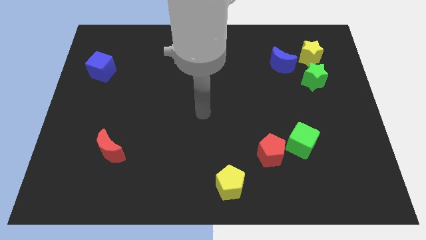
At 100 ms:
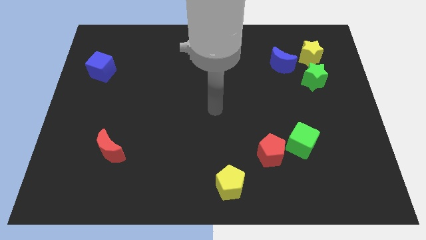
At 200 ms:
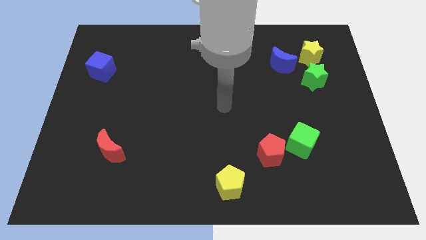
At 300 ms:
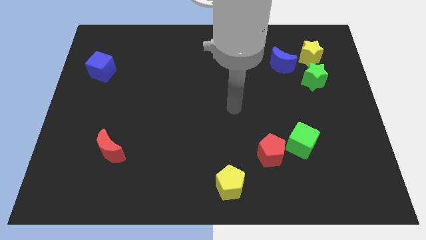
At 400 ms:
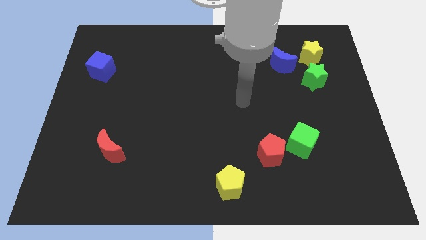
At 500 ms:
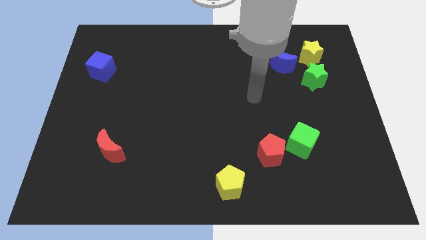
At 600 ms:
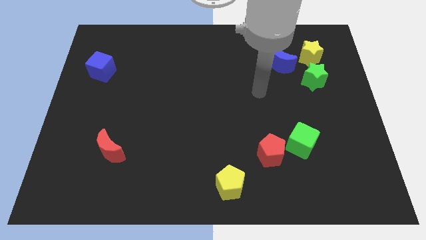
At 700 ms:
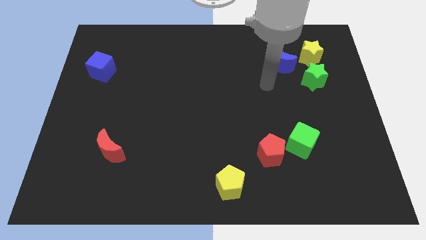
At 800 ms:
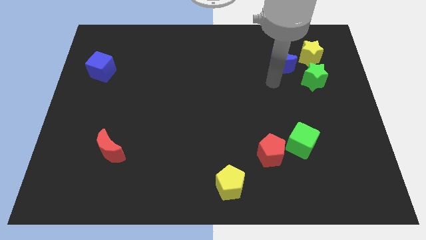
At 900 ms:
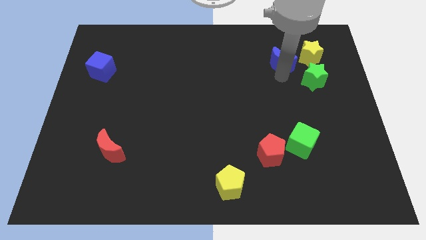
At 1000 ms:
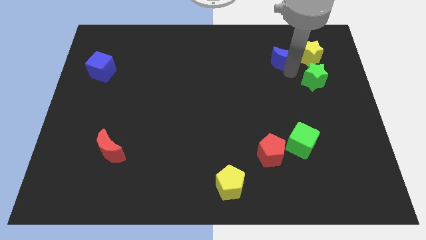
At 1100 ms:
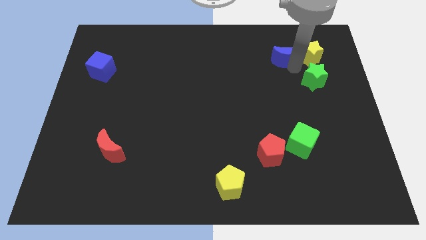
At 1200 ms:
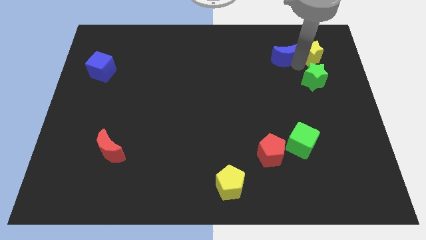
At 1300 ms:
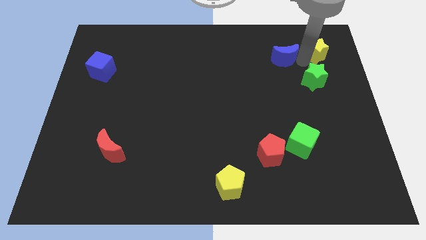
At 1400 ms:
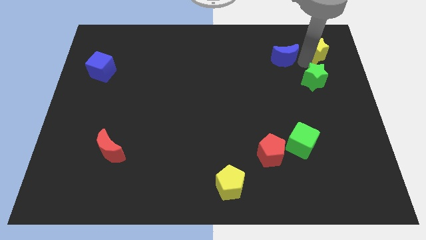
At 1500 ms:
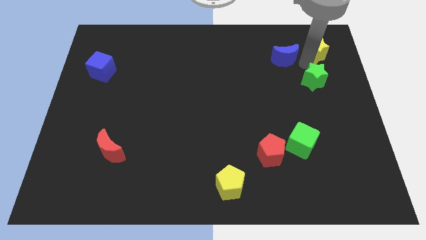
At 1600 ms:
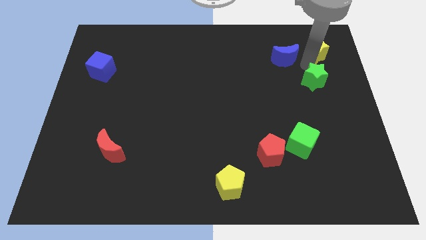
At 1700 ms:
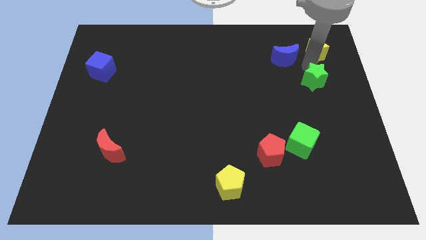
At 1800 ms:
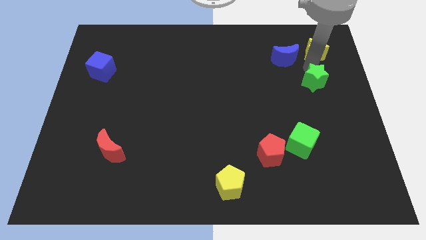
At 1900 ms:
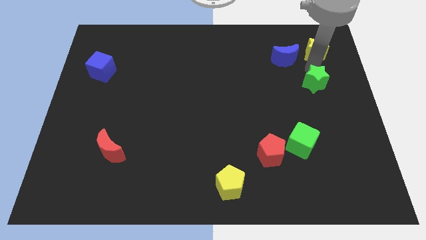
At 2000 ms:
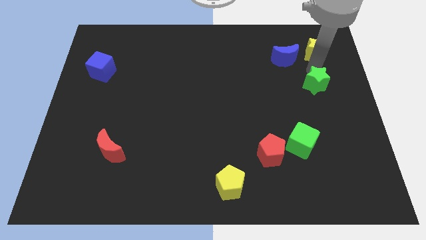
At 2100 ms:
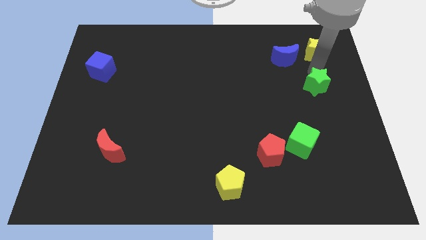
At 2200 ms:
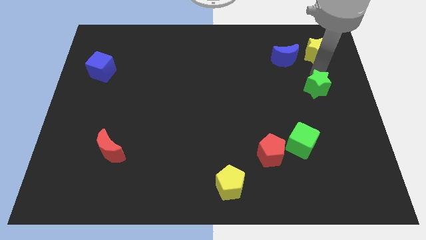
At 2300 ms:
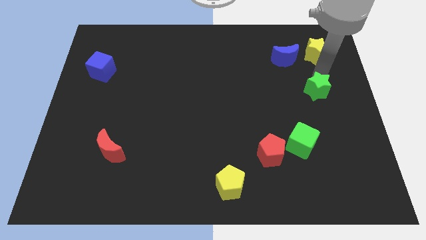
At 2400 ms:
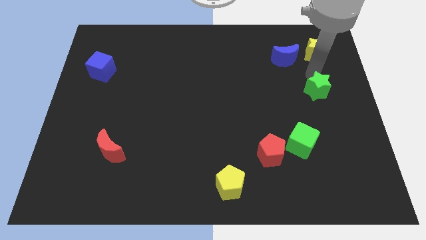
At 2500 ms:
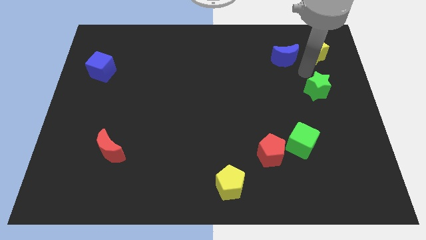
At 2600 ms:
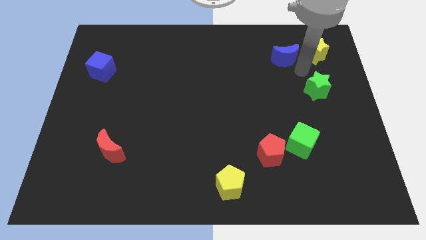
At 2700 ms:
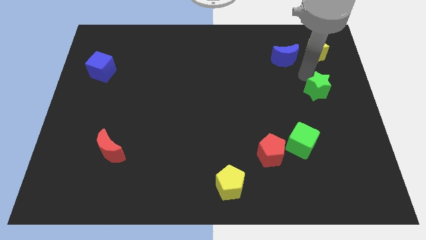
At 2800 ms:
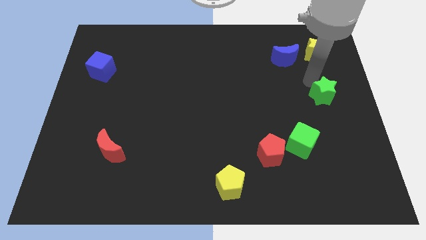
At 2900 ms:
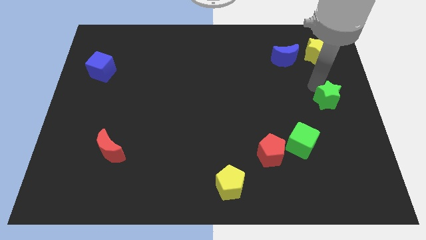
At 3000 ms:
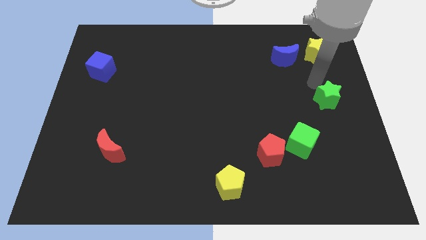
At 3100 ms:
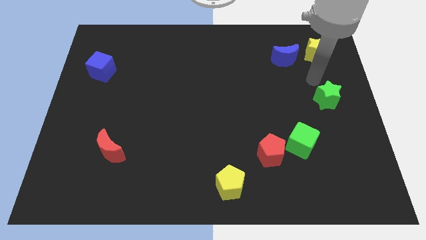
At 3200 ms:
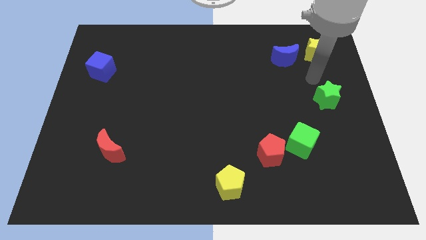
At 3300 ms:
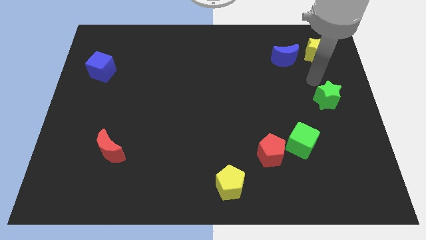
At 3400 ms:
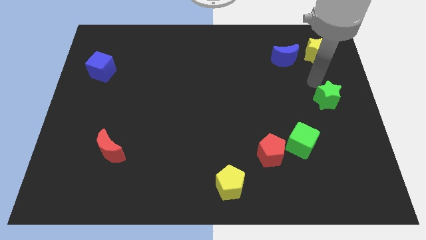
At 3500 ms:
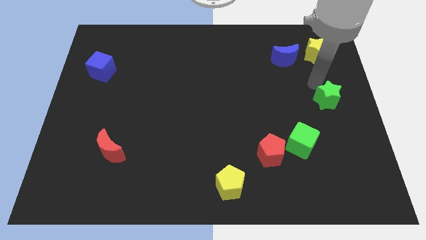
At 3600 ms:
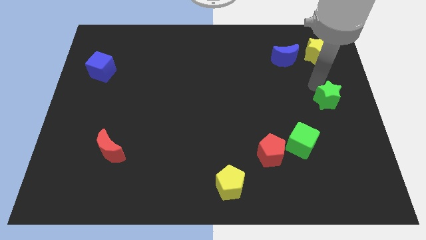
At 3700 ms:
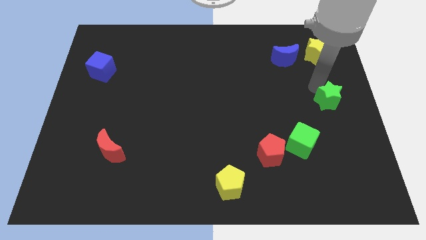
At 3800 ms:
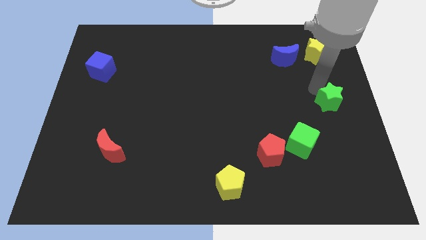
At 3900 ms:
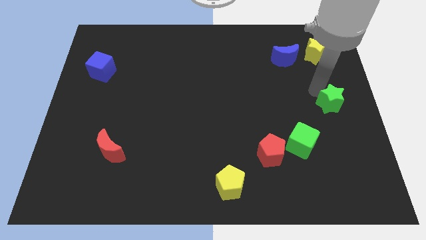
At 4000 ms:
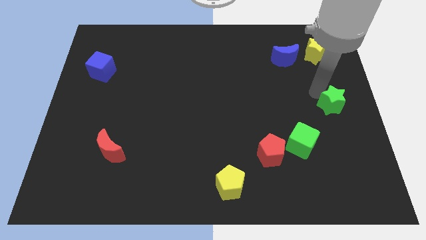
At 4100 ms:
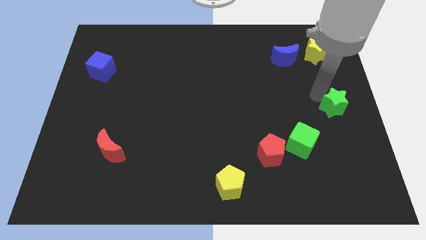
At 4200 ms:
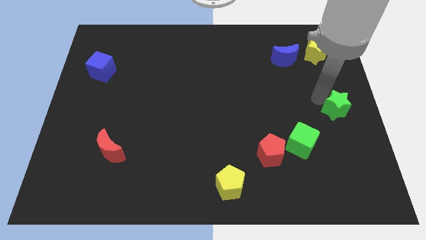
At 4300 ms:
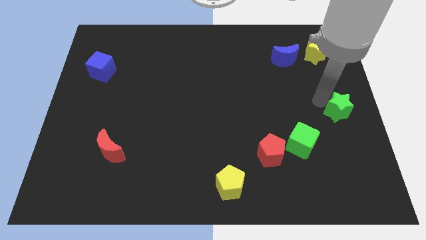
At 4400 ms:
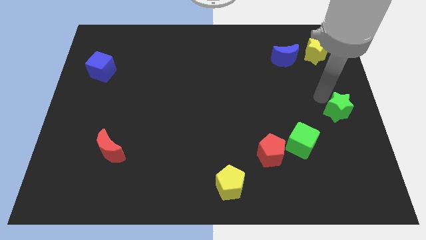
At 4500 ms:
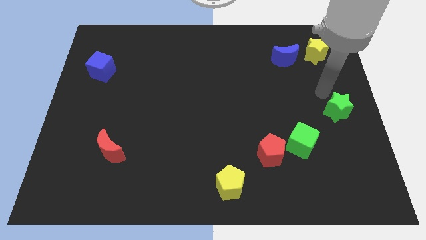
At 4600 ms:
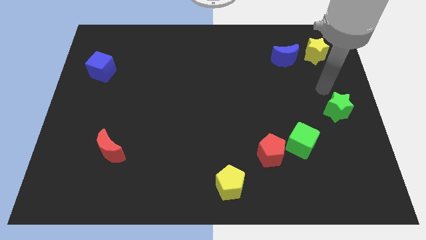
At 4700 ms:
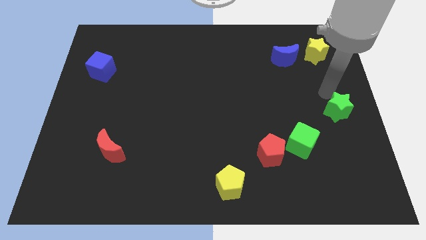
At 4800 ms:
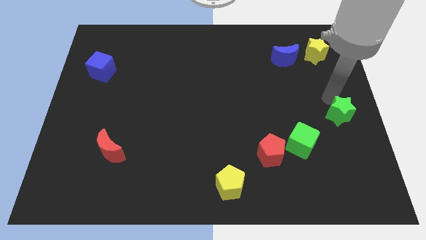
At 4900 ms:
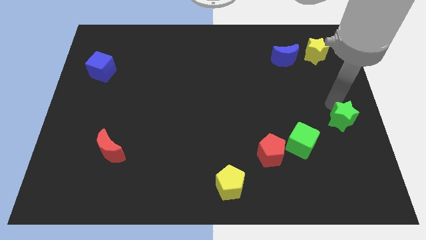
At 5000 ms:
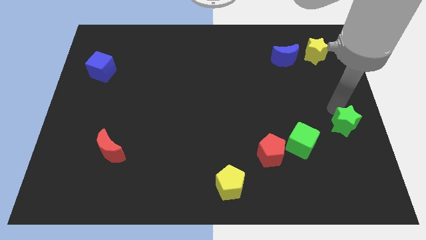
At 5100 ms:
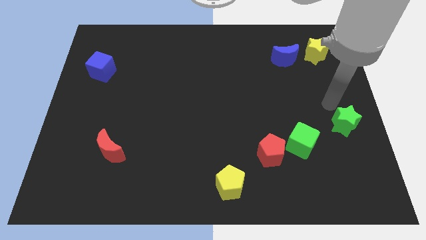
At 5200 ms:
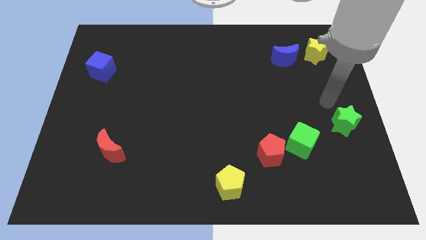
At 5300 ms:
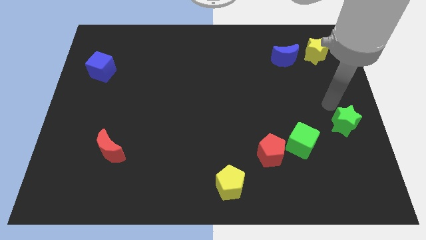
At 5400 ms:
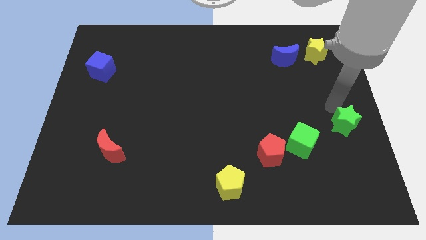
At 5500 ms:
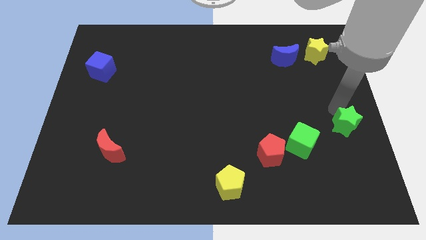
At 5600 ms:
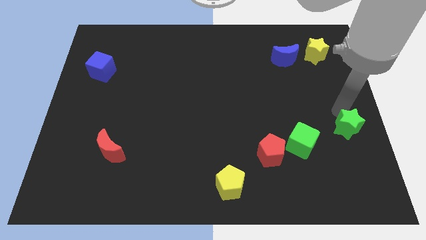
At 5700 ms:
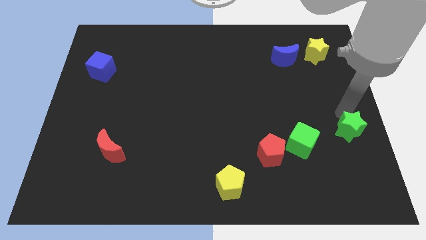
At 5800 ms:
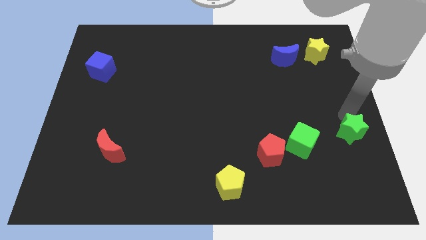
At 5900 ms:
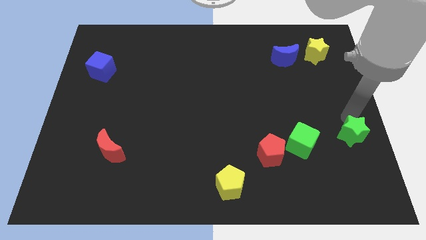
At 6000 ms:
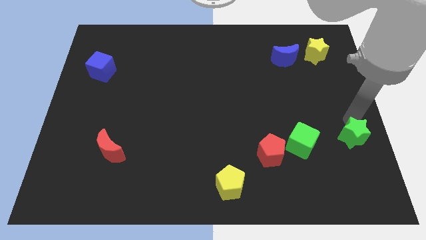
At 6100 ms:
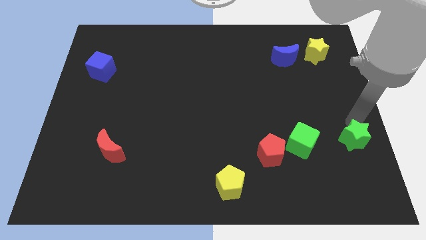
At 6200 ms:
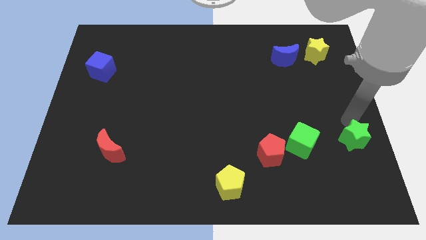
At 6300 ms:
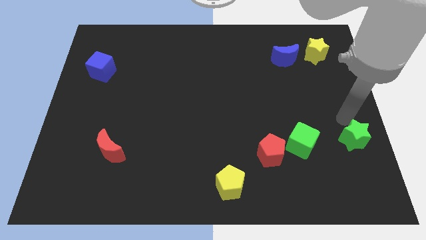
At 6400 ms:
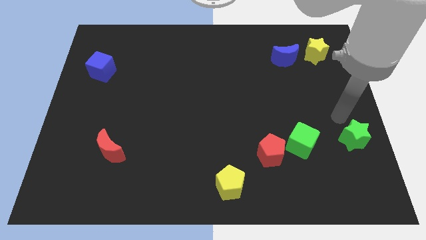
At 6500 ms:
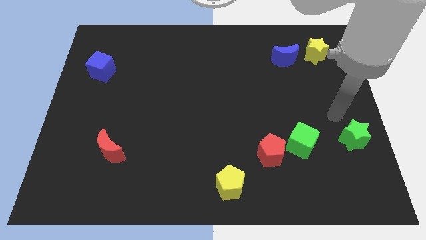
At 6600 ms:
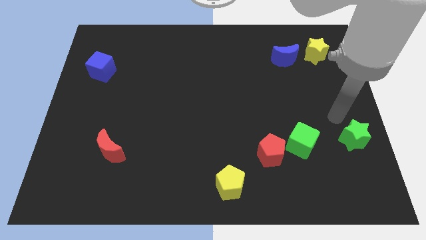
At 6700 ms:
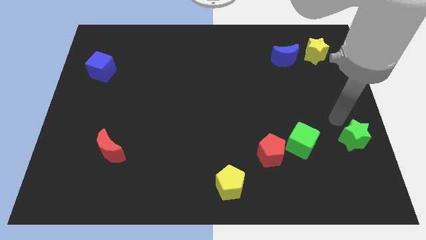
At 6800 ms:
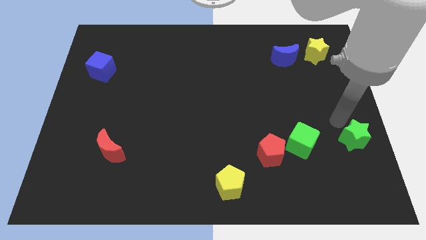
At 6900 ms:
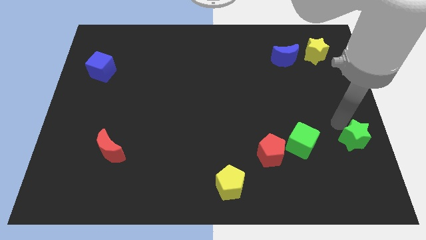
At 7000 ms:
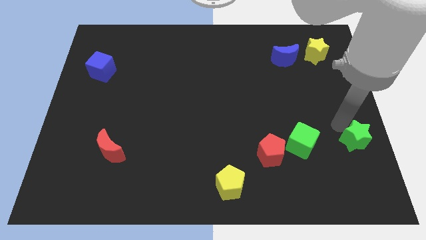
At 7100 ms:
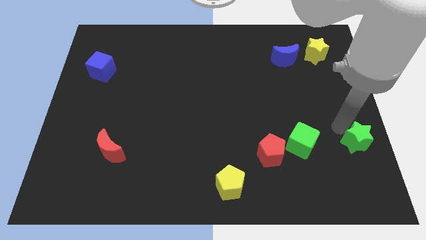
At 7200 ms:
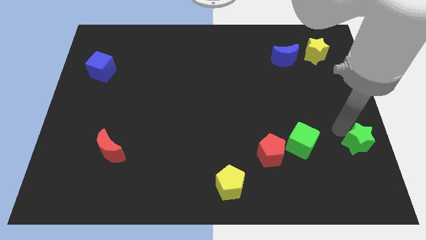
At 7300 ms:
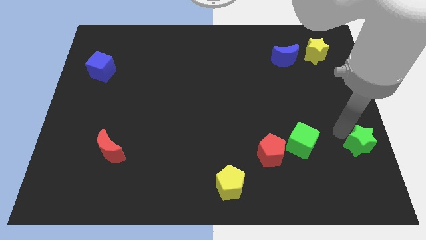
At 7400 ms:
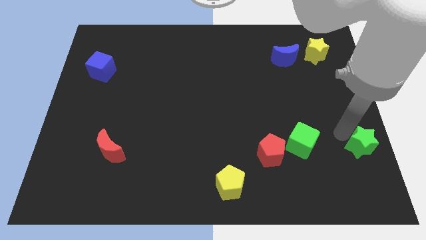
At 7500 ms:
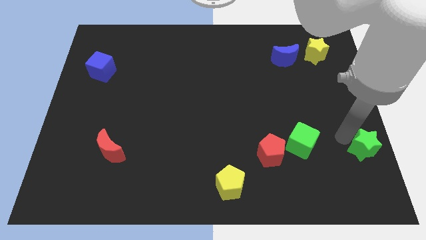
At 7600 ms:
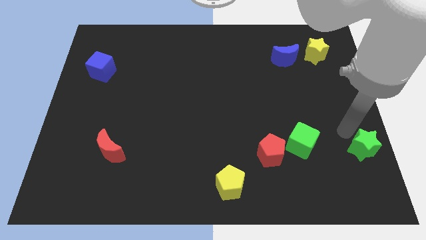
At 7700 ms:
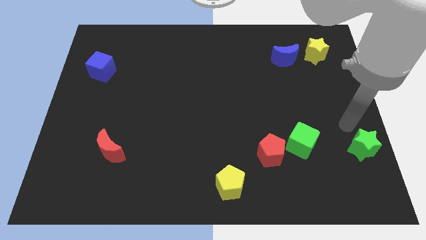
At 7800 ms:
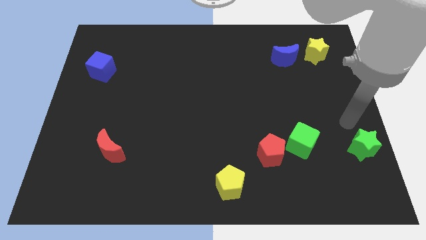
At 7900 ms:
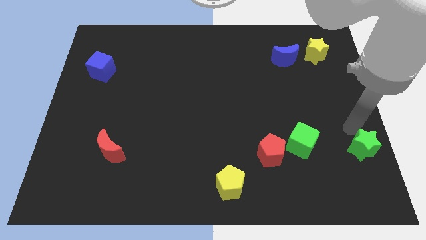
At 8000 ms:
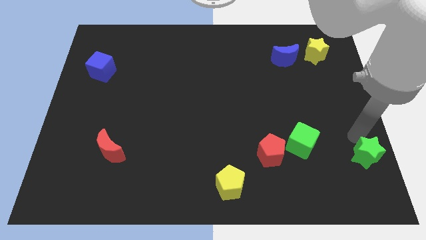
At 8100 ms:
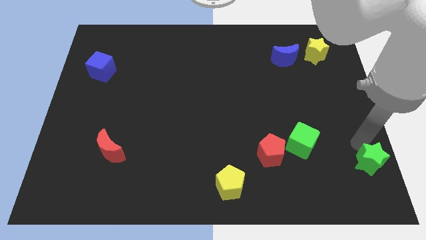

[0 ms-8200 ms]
slide the green star to the lower right corner
